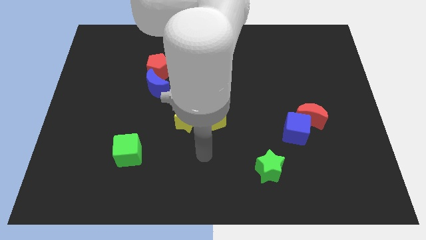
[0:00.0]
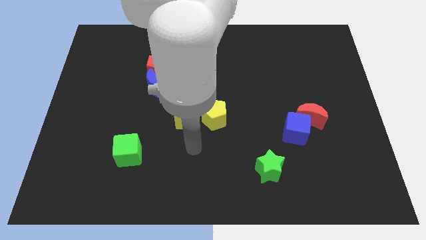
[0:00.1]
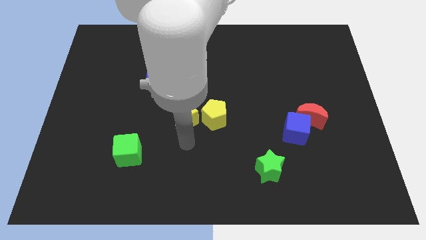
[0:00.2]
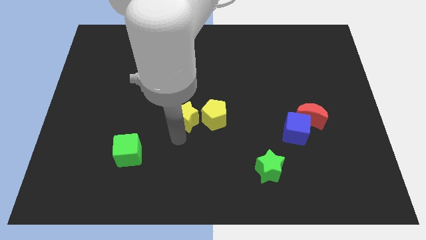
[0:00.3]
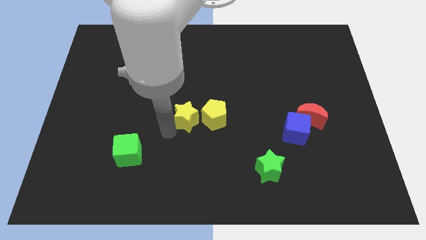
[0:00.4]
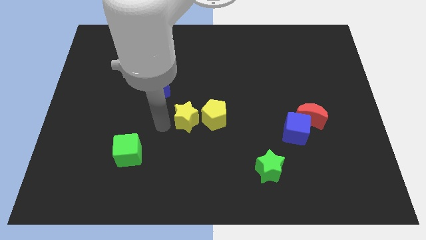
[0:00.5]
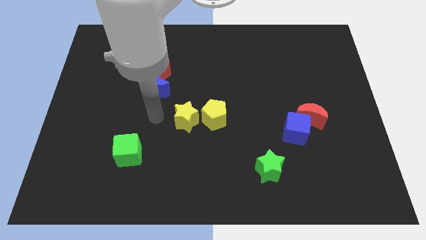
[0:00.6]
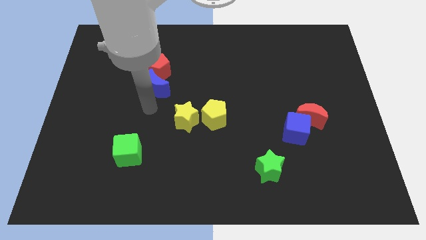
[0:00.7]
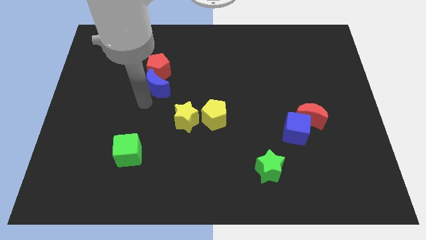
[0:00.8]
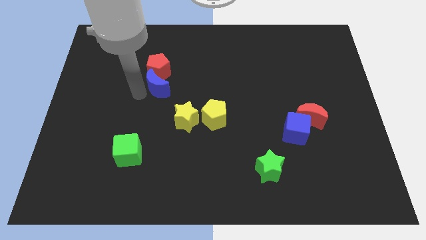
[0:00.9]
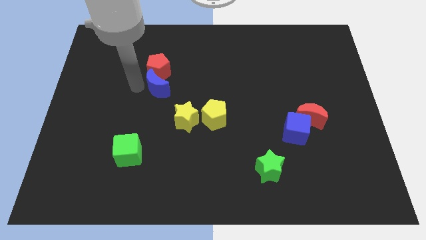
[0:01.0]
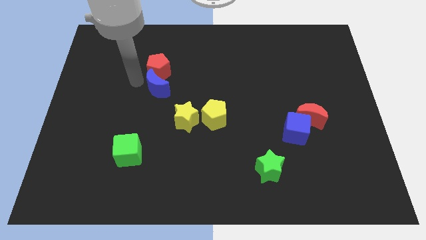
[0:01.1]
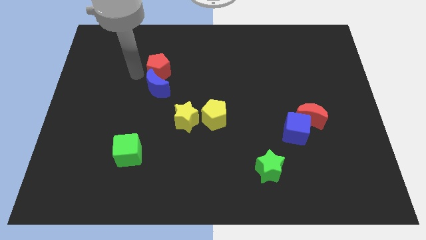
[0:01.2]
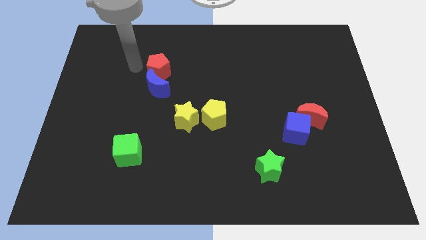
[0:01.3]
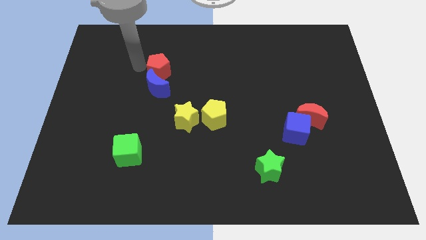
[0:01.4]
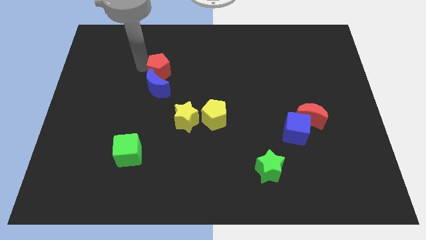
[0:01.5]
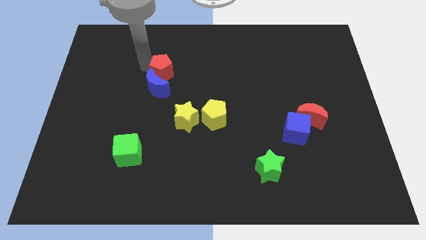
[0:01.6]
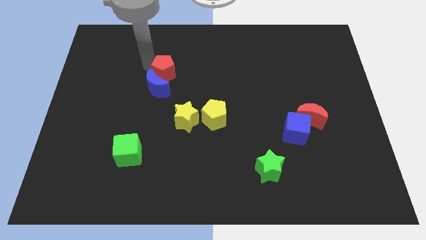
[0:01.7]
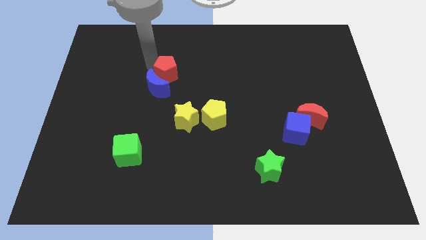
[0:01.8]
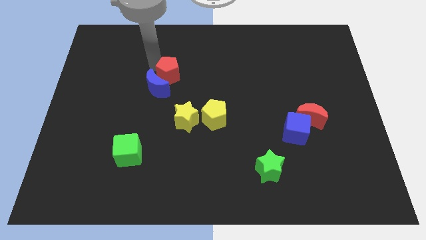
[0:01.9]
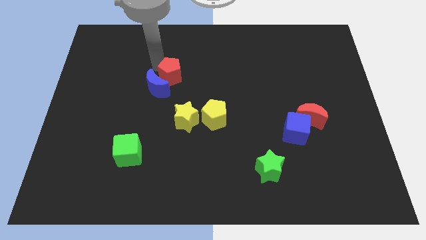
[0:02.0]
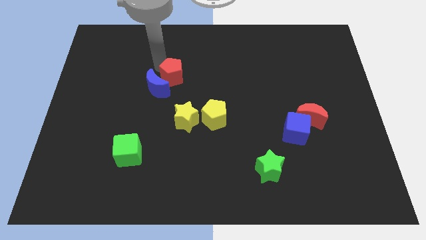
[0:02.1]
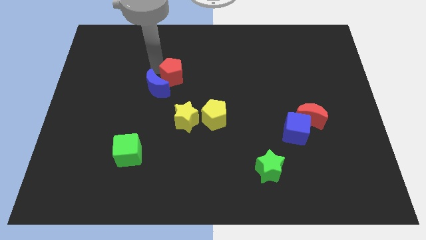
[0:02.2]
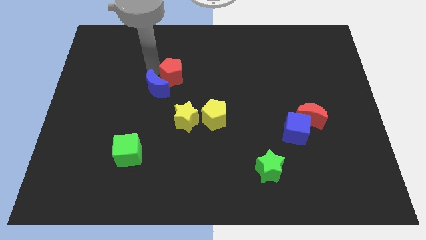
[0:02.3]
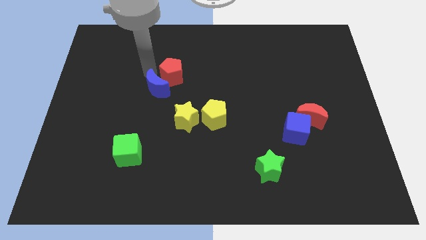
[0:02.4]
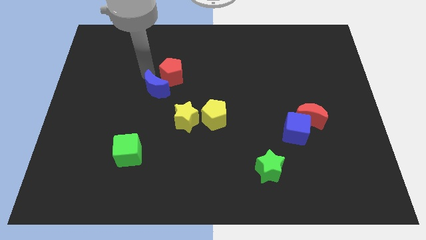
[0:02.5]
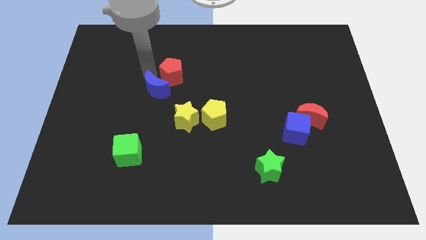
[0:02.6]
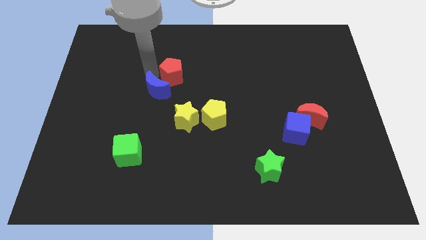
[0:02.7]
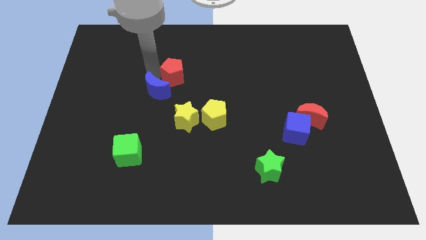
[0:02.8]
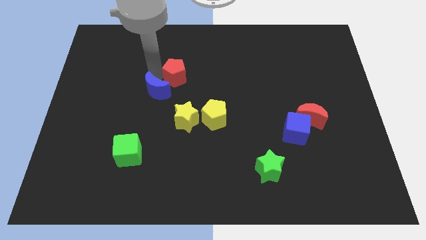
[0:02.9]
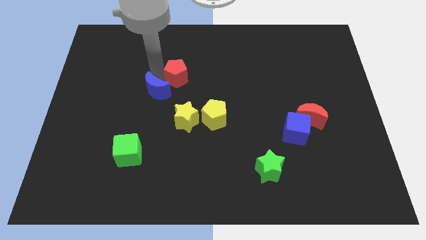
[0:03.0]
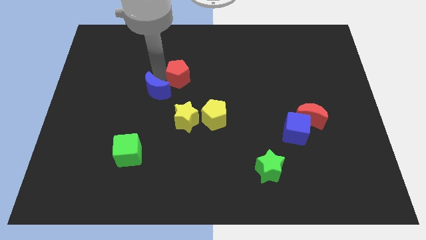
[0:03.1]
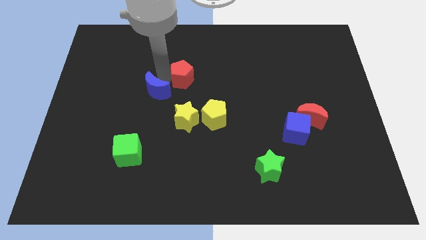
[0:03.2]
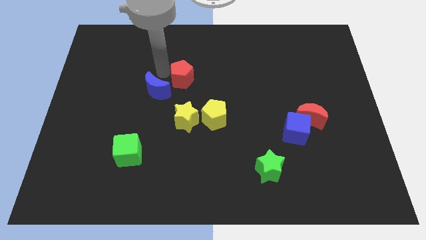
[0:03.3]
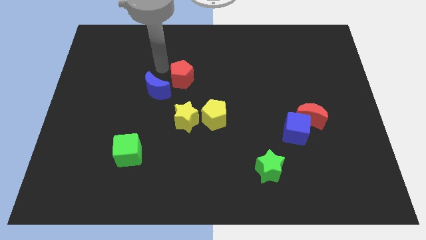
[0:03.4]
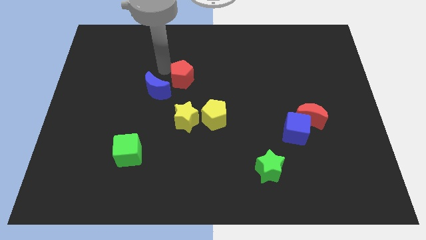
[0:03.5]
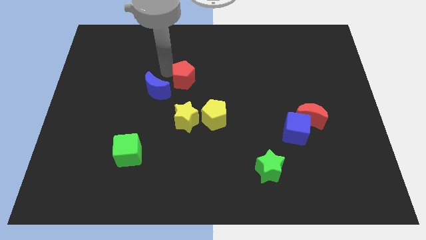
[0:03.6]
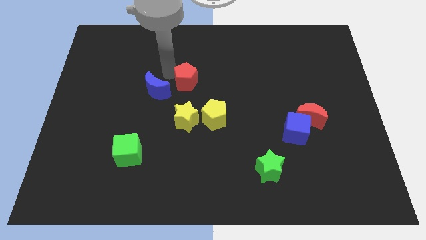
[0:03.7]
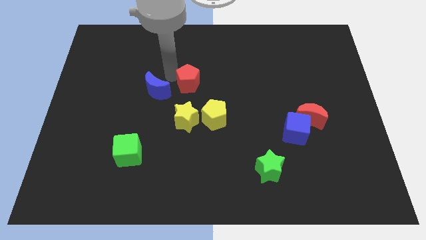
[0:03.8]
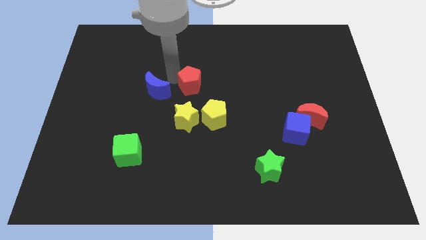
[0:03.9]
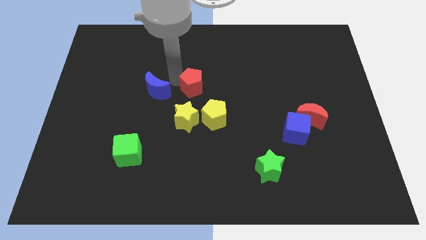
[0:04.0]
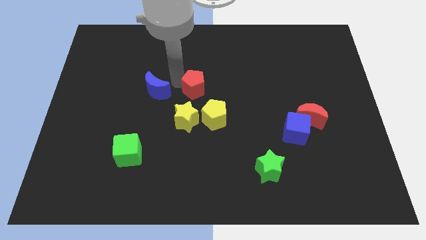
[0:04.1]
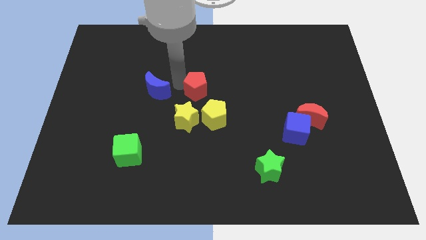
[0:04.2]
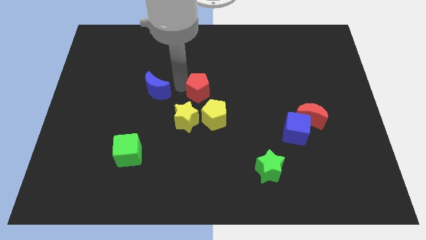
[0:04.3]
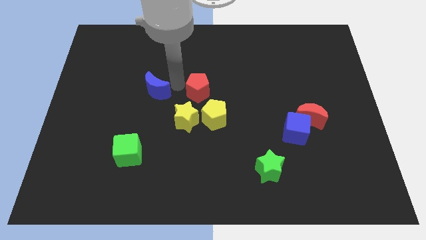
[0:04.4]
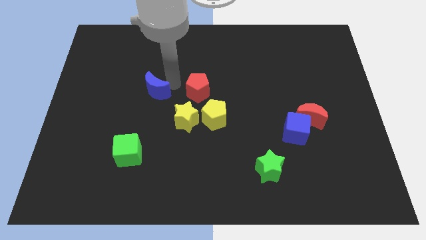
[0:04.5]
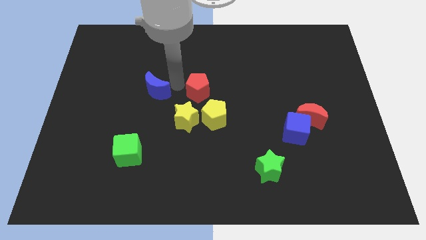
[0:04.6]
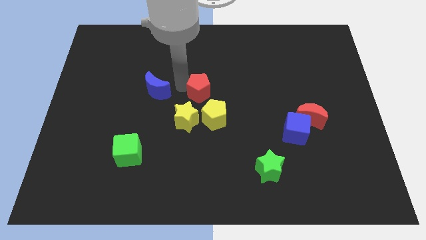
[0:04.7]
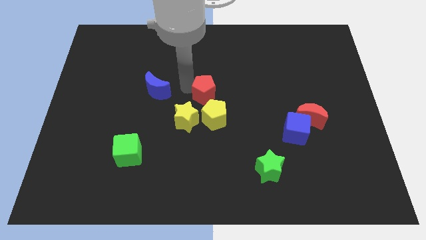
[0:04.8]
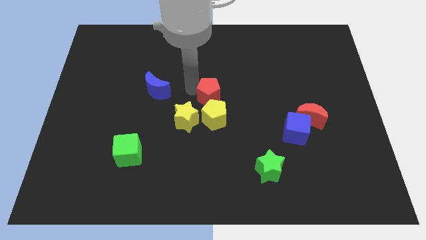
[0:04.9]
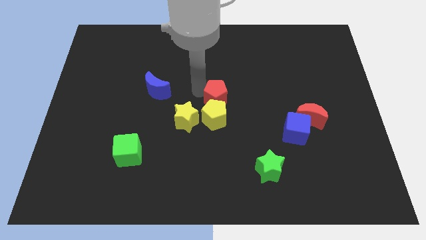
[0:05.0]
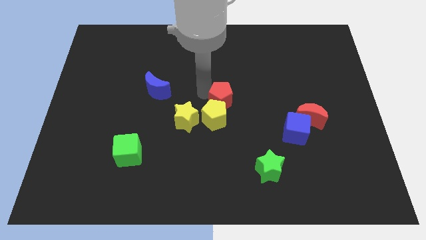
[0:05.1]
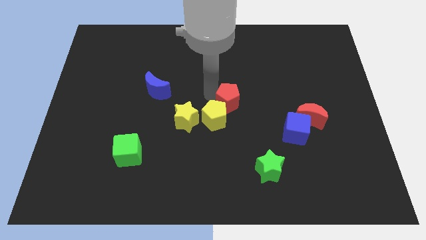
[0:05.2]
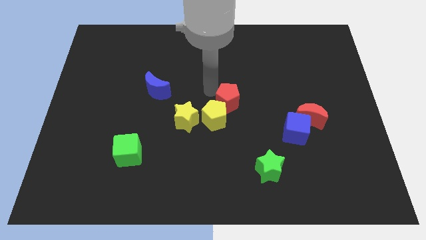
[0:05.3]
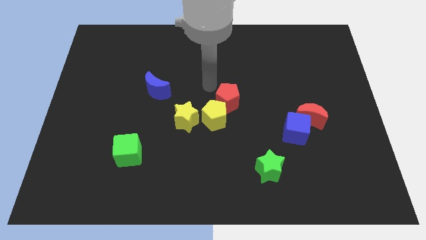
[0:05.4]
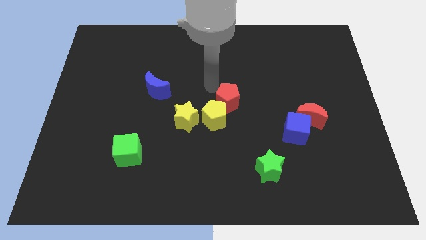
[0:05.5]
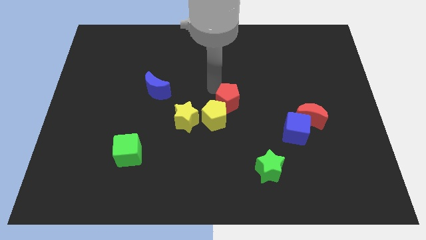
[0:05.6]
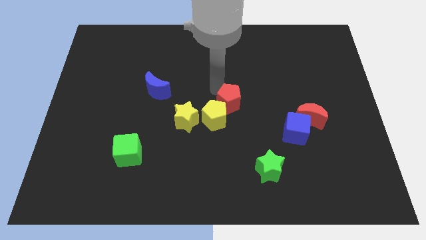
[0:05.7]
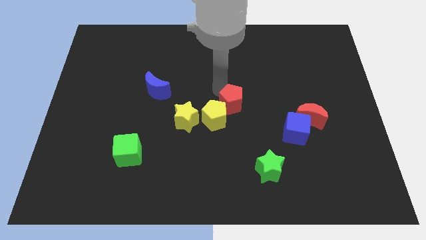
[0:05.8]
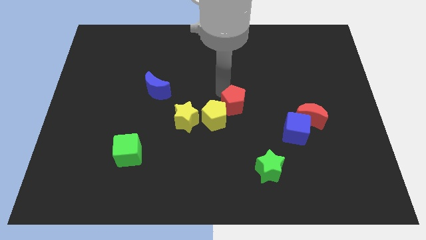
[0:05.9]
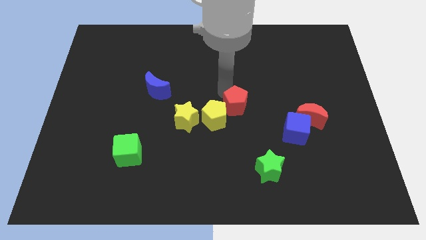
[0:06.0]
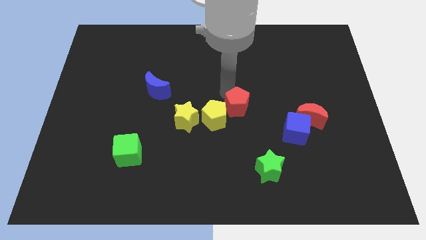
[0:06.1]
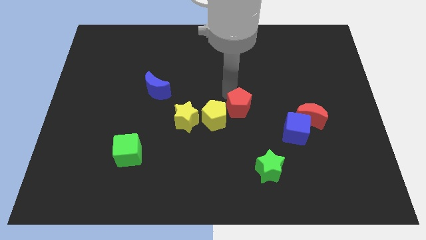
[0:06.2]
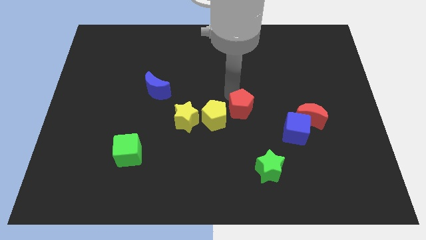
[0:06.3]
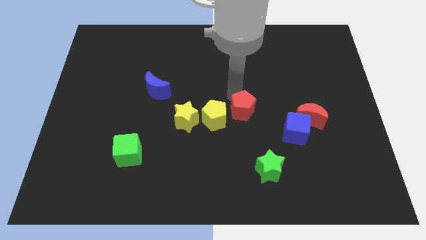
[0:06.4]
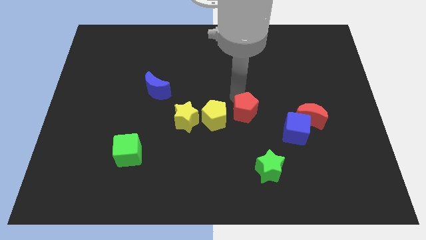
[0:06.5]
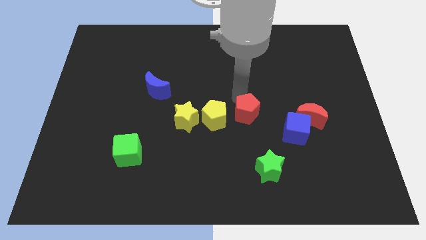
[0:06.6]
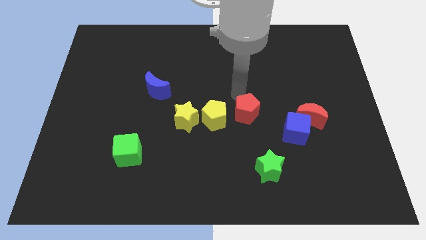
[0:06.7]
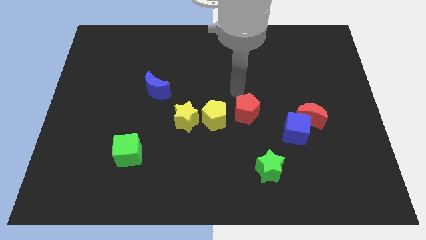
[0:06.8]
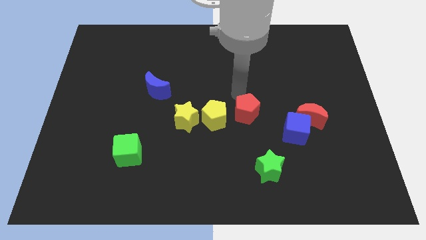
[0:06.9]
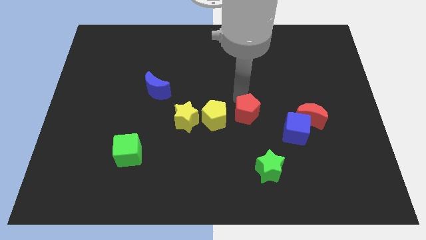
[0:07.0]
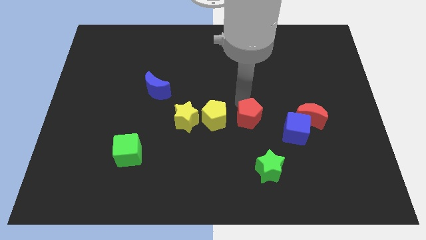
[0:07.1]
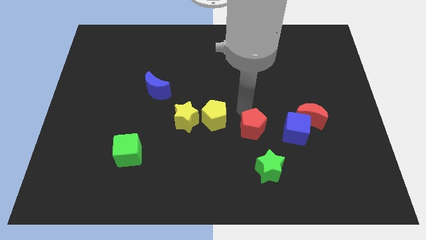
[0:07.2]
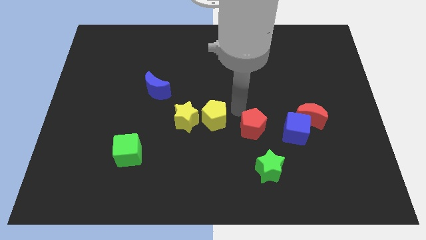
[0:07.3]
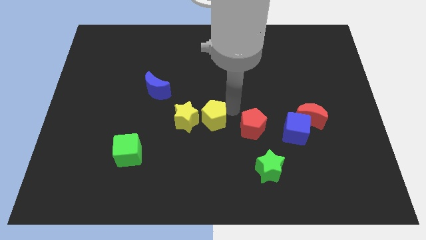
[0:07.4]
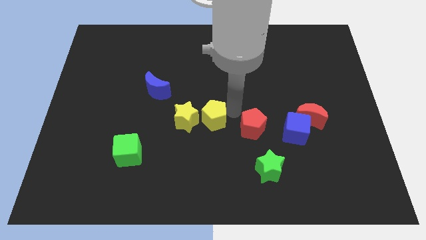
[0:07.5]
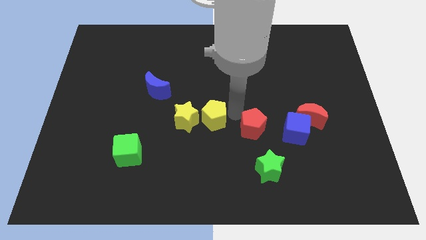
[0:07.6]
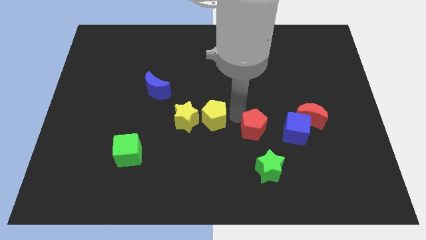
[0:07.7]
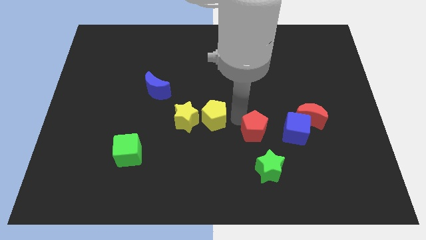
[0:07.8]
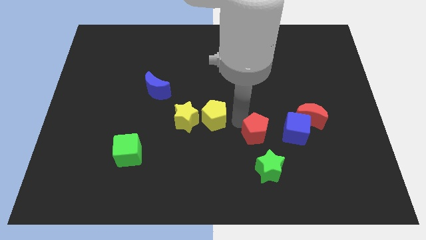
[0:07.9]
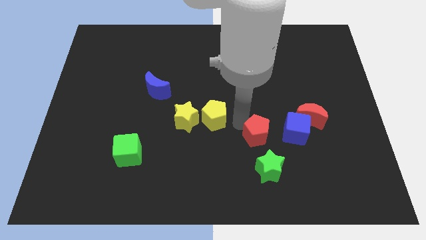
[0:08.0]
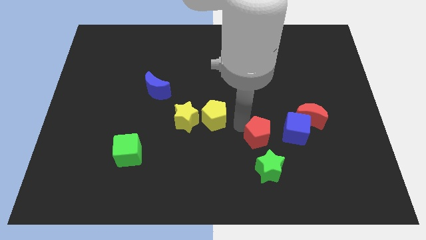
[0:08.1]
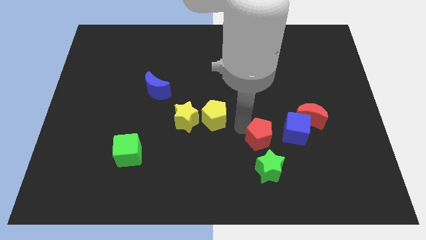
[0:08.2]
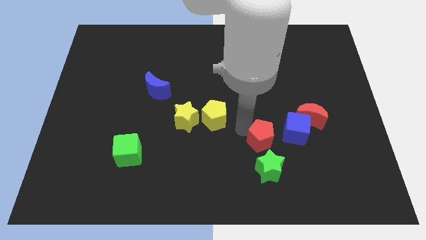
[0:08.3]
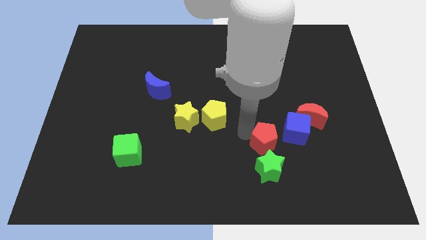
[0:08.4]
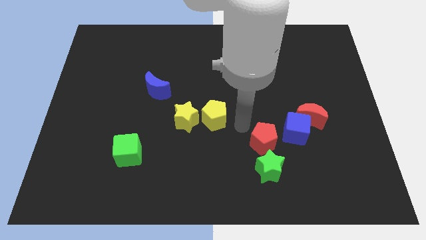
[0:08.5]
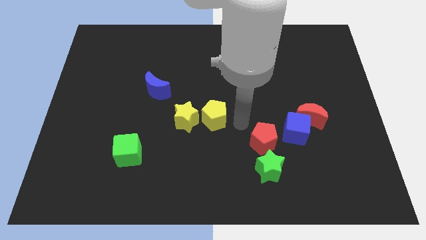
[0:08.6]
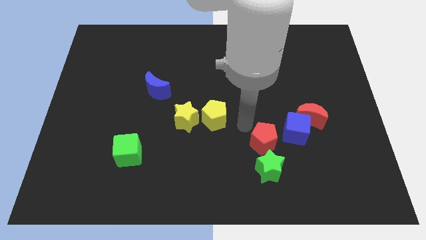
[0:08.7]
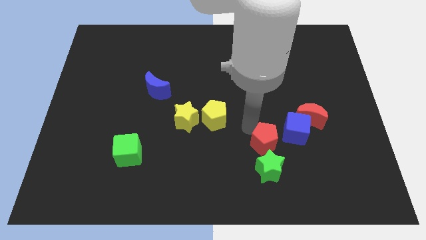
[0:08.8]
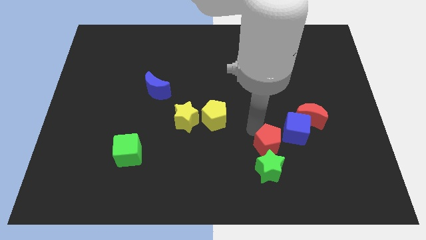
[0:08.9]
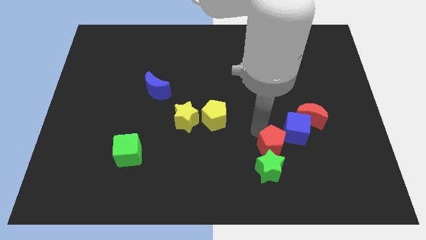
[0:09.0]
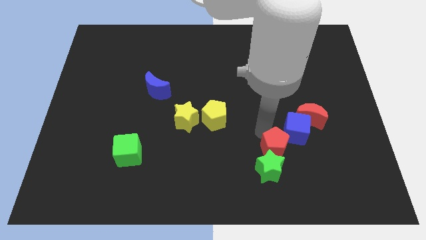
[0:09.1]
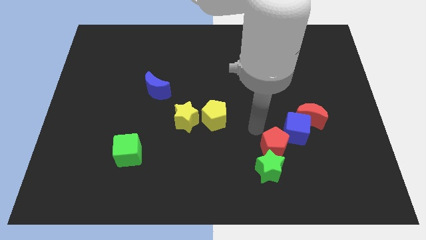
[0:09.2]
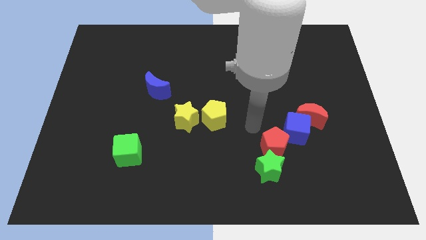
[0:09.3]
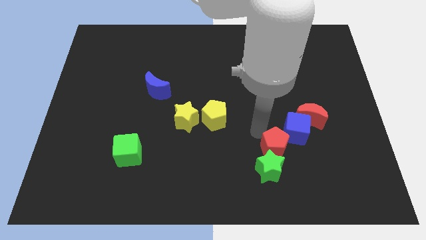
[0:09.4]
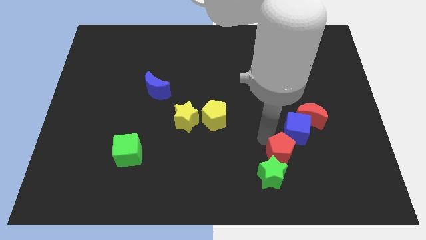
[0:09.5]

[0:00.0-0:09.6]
put the red pentagon to the bottom of the blue cube
